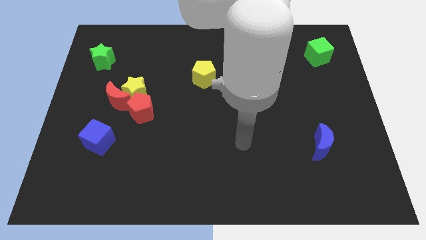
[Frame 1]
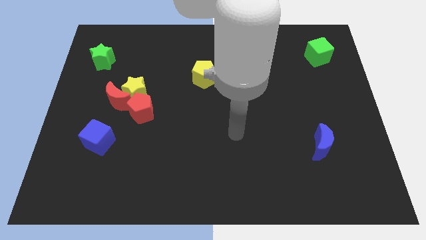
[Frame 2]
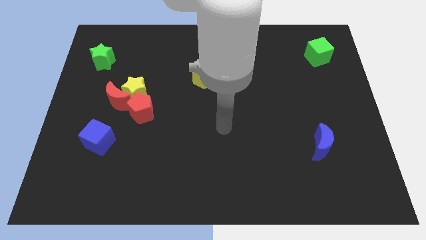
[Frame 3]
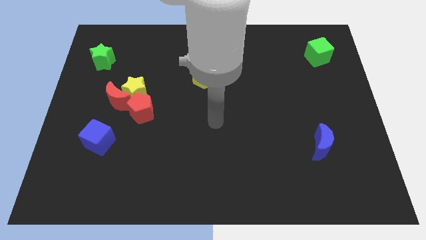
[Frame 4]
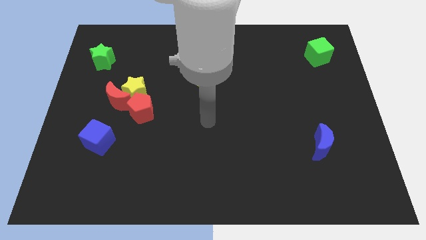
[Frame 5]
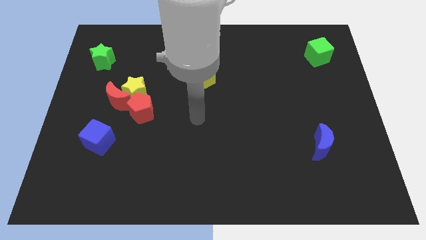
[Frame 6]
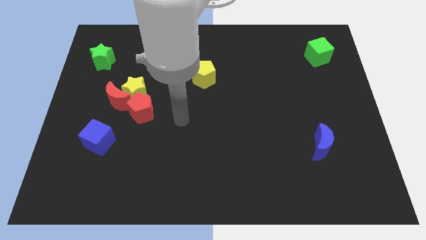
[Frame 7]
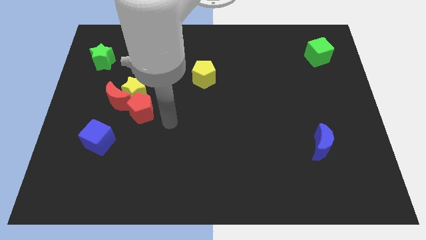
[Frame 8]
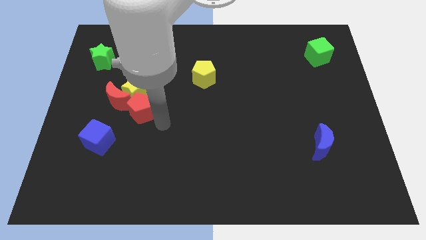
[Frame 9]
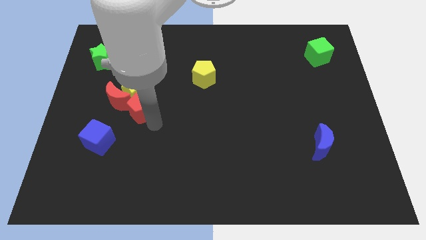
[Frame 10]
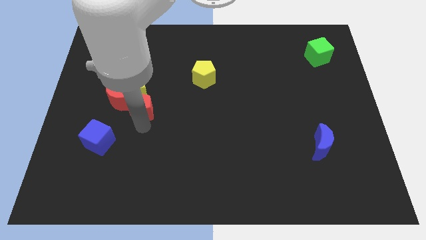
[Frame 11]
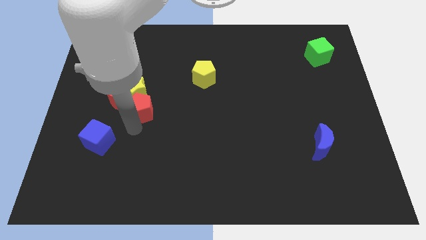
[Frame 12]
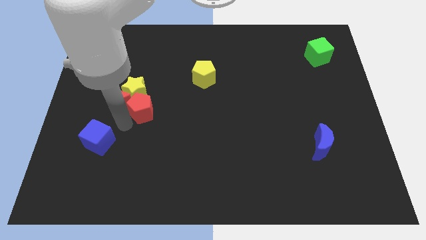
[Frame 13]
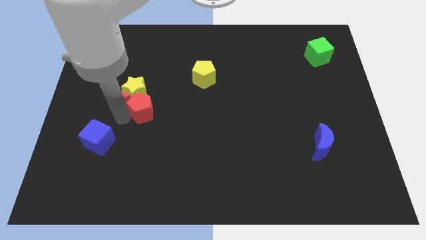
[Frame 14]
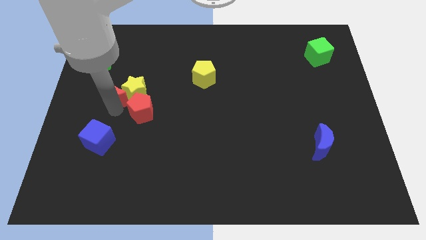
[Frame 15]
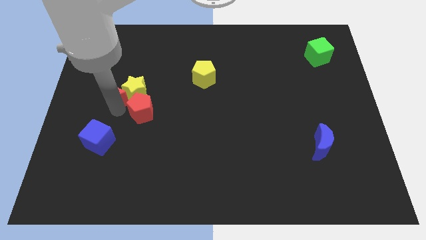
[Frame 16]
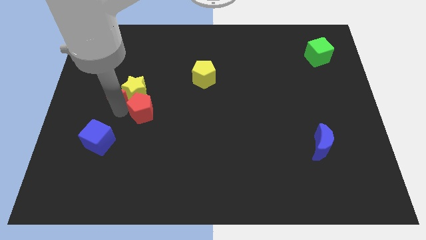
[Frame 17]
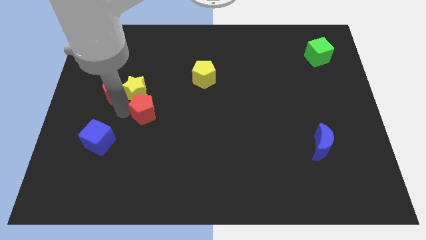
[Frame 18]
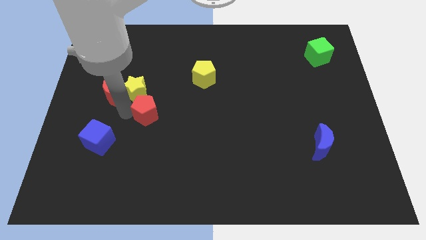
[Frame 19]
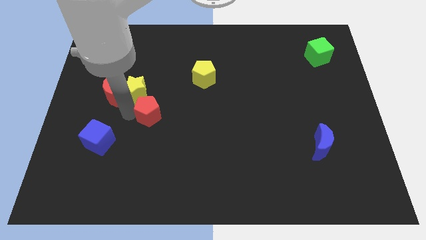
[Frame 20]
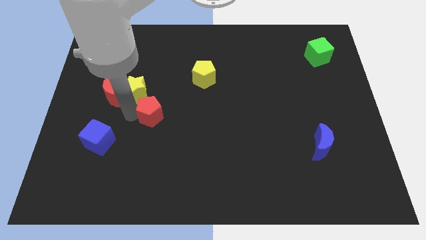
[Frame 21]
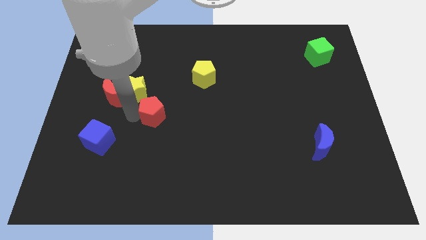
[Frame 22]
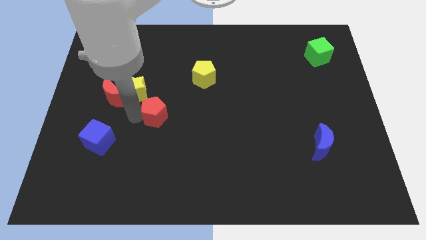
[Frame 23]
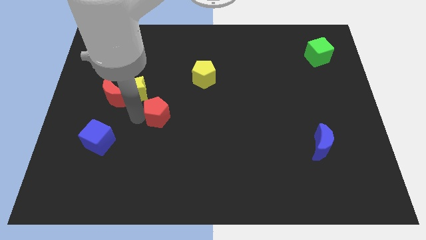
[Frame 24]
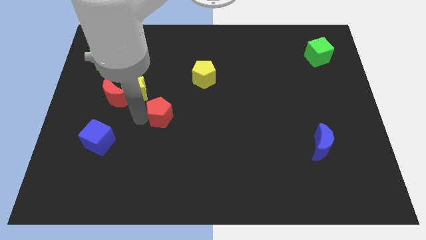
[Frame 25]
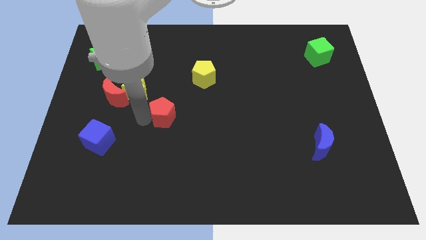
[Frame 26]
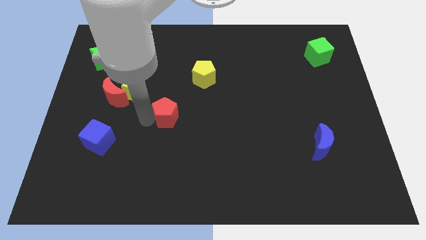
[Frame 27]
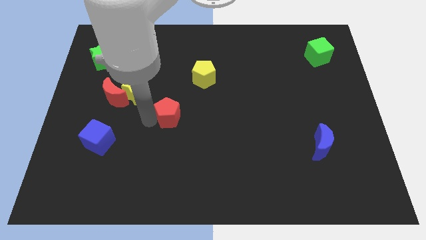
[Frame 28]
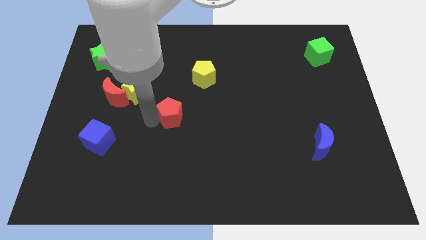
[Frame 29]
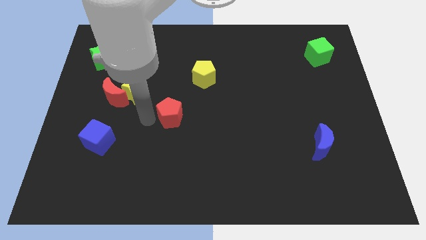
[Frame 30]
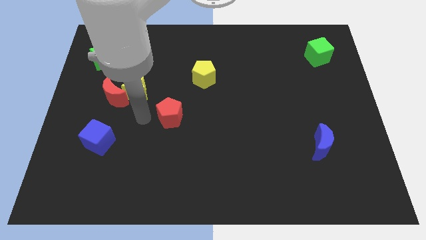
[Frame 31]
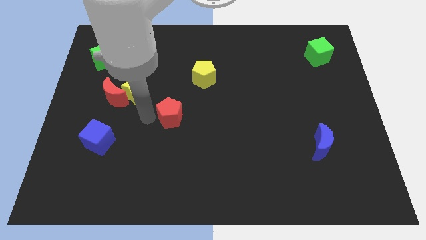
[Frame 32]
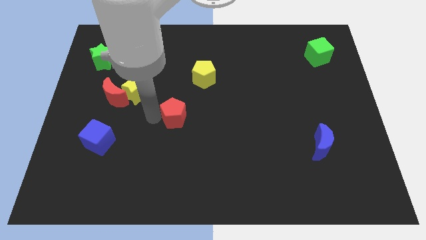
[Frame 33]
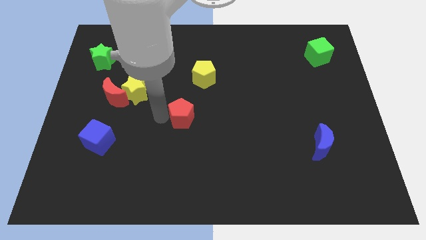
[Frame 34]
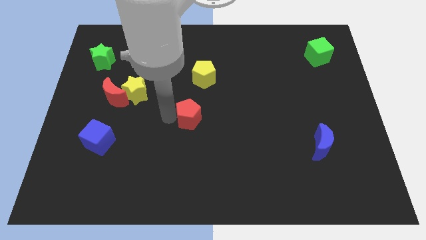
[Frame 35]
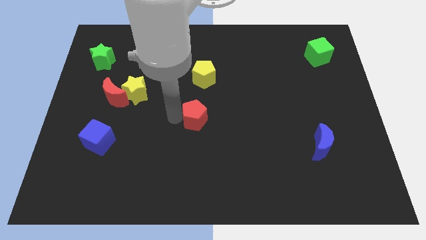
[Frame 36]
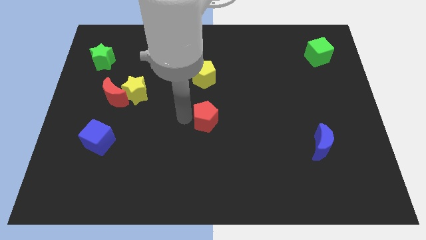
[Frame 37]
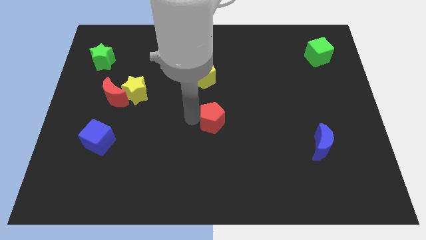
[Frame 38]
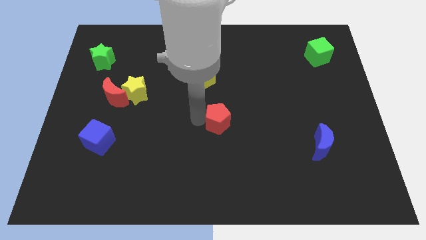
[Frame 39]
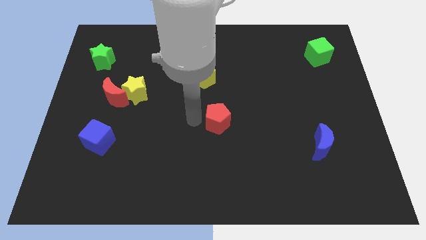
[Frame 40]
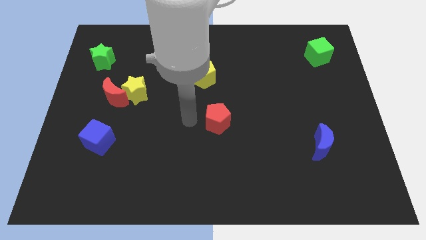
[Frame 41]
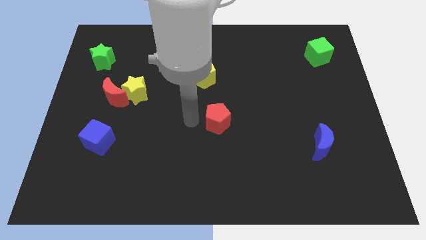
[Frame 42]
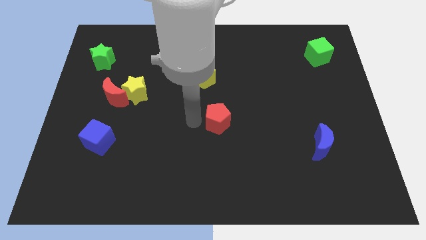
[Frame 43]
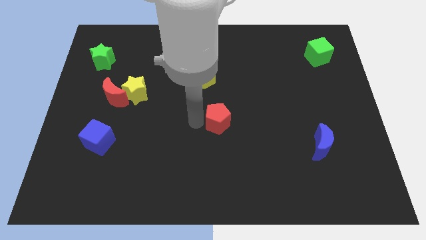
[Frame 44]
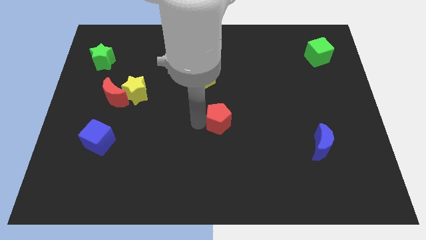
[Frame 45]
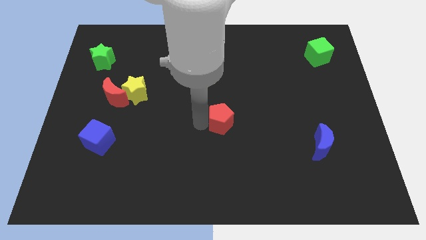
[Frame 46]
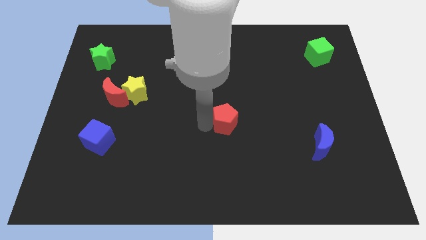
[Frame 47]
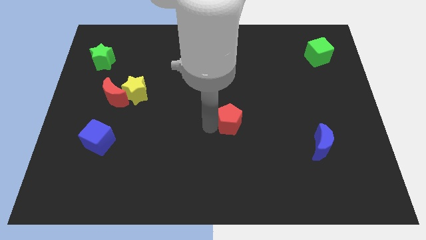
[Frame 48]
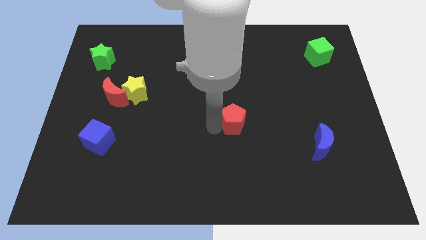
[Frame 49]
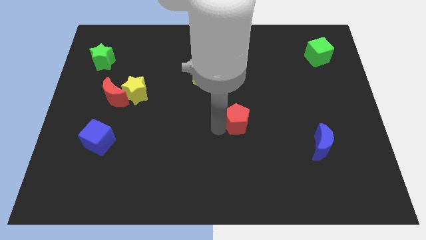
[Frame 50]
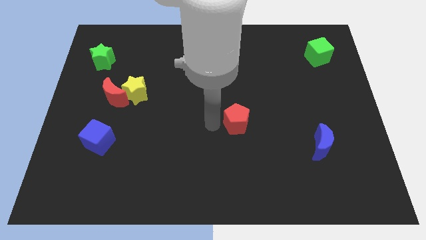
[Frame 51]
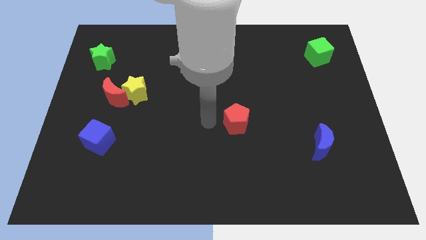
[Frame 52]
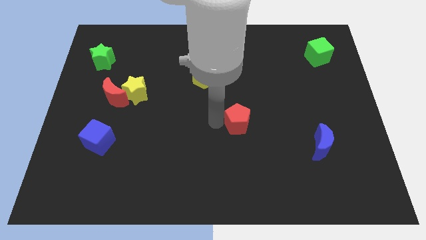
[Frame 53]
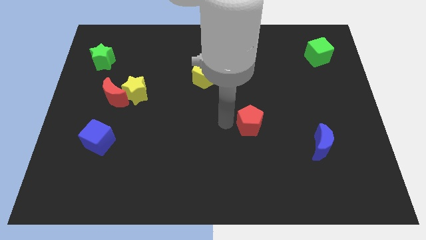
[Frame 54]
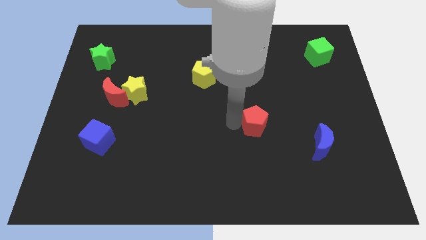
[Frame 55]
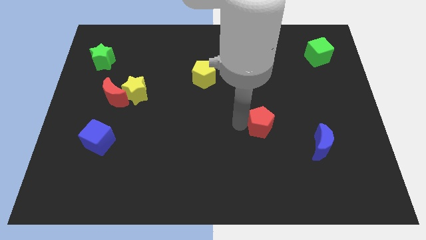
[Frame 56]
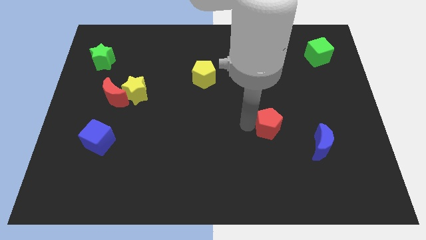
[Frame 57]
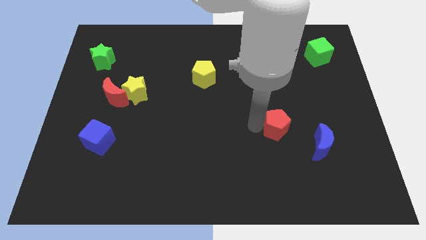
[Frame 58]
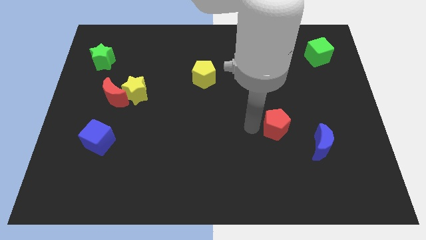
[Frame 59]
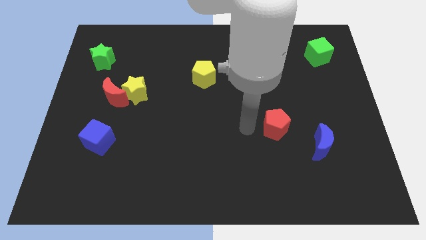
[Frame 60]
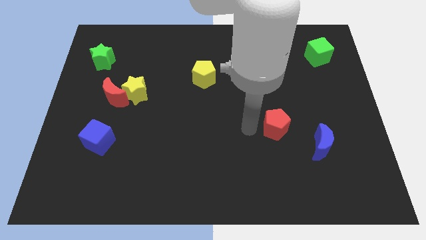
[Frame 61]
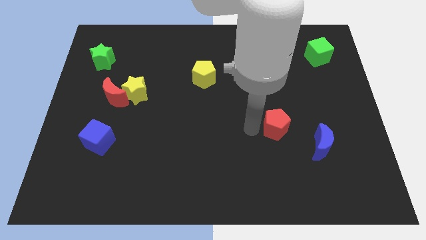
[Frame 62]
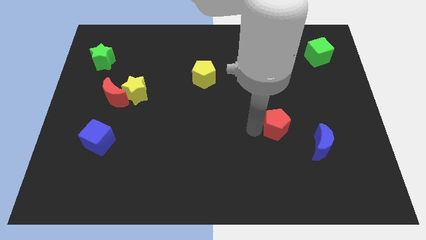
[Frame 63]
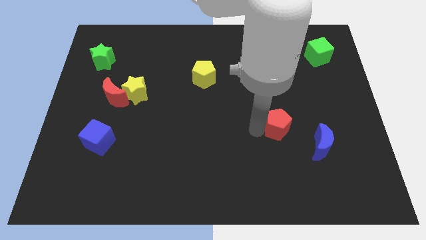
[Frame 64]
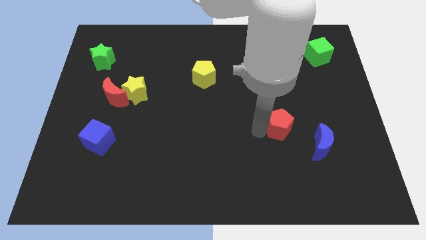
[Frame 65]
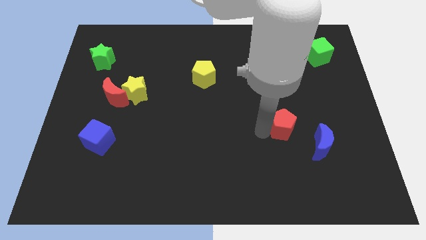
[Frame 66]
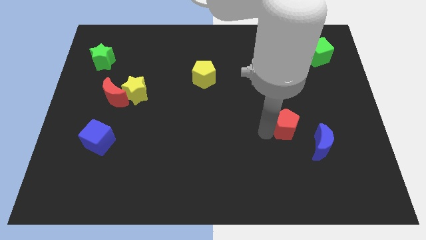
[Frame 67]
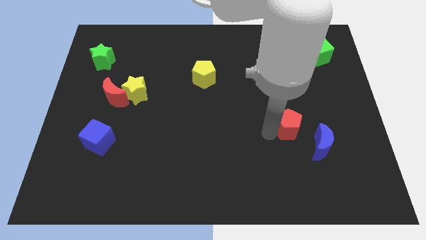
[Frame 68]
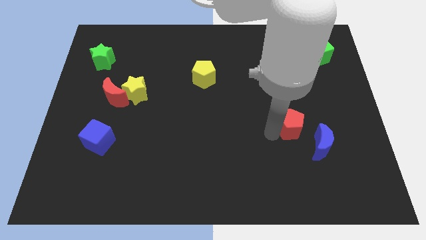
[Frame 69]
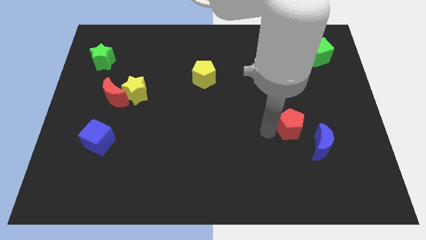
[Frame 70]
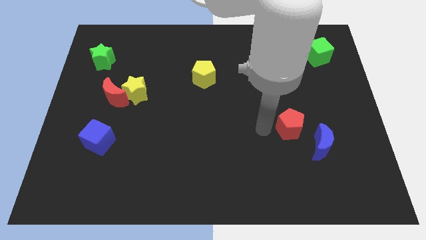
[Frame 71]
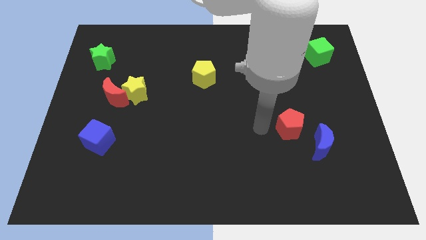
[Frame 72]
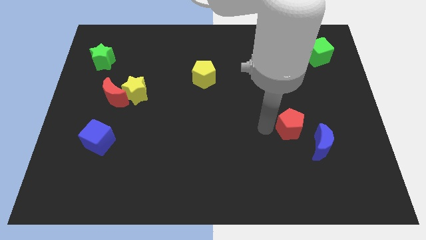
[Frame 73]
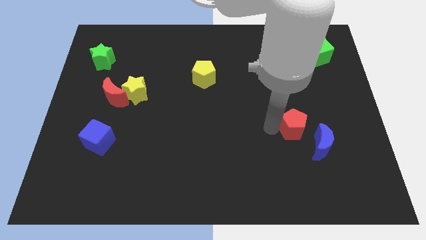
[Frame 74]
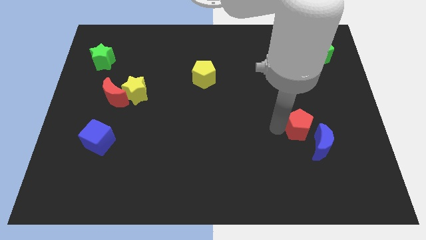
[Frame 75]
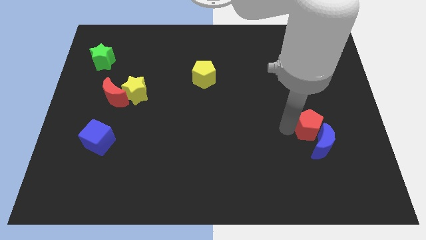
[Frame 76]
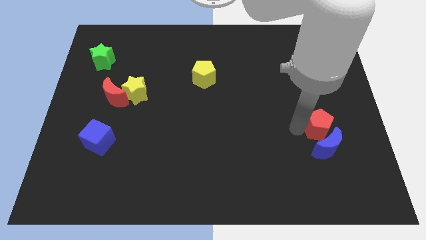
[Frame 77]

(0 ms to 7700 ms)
move the red pentagon to the top right of the blue moon
